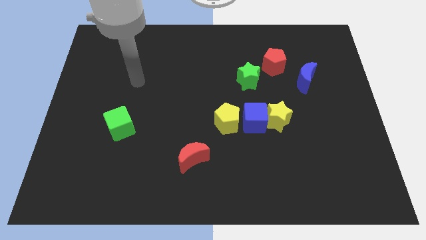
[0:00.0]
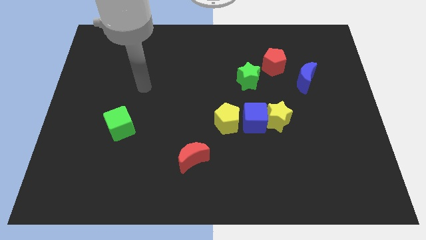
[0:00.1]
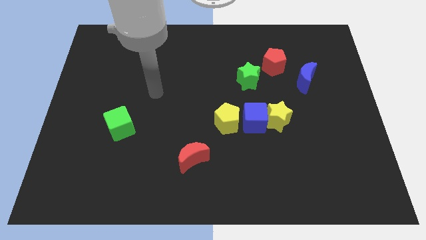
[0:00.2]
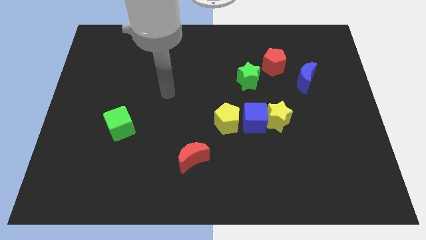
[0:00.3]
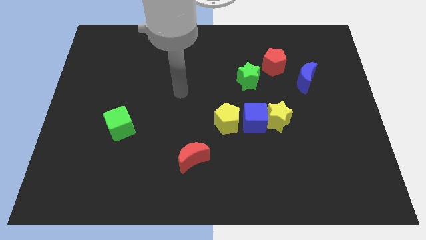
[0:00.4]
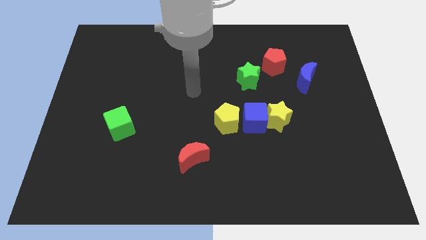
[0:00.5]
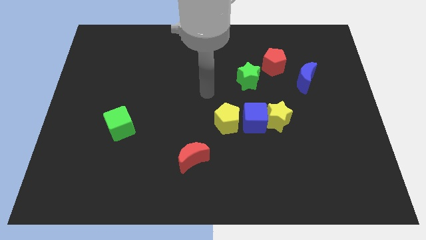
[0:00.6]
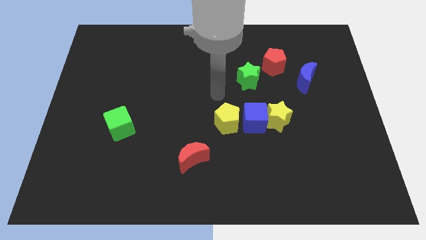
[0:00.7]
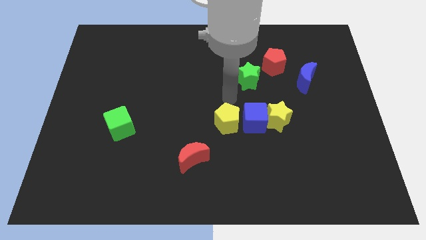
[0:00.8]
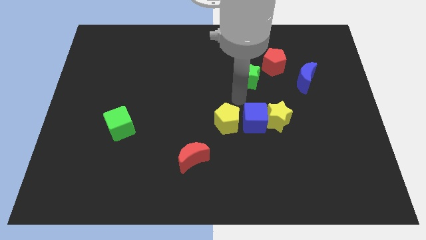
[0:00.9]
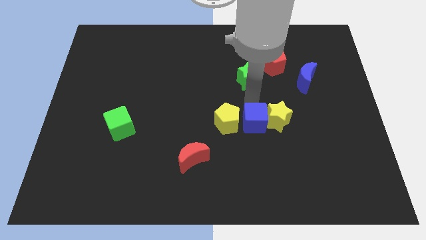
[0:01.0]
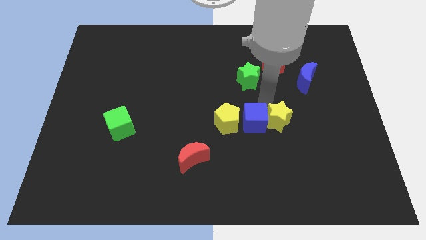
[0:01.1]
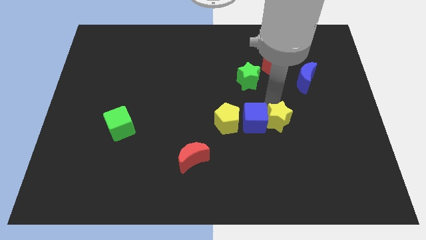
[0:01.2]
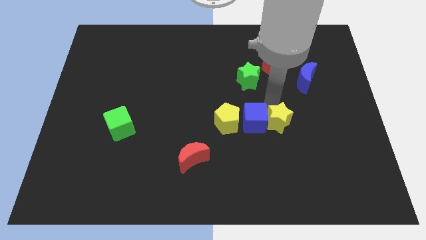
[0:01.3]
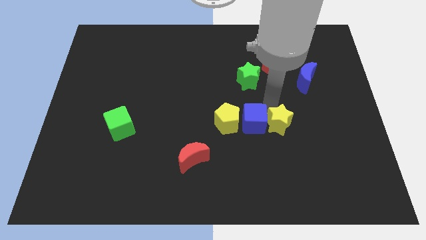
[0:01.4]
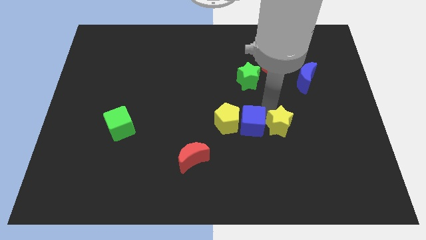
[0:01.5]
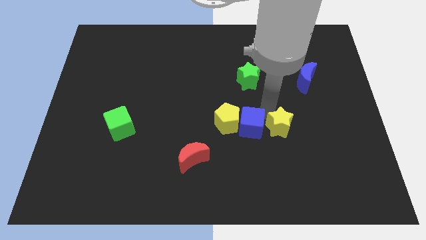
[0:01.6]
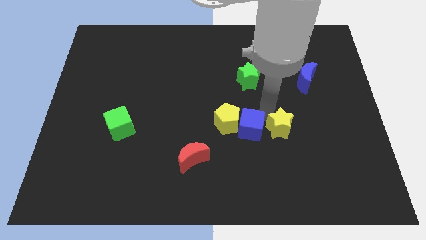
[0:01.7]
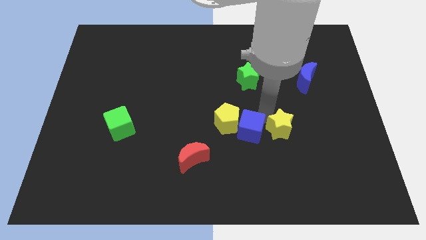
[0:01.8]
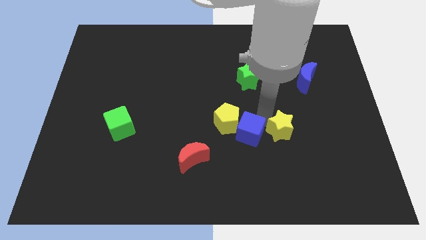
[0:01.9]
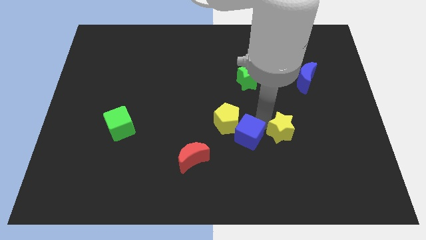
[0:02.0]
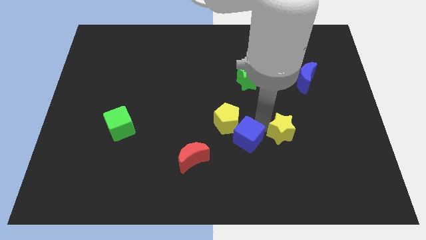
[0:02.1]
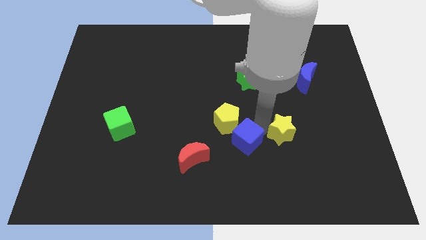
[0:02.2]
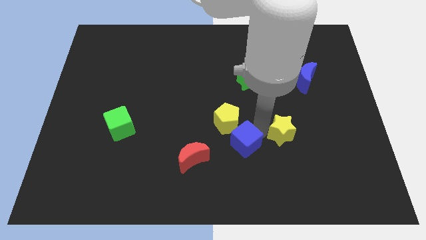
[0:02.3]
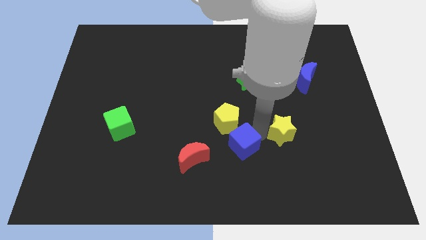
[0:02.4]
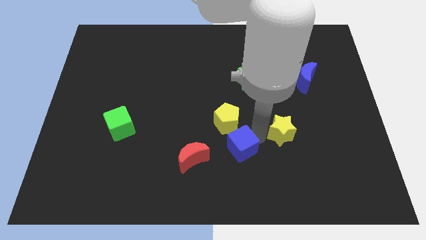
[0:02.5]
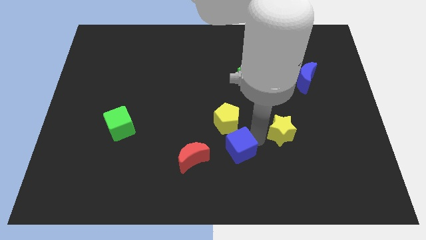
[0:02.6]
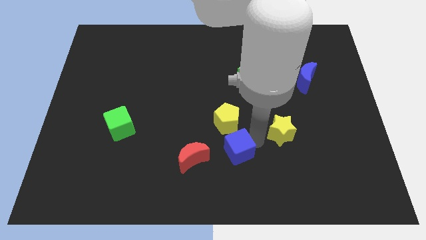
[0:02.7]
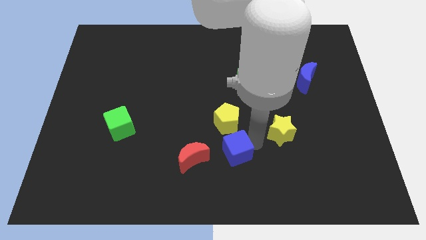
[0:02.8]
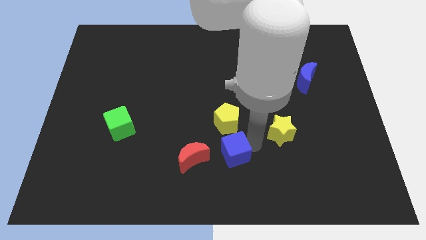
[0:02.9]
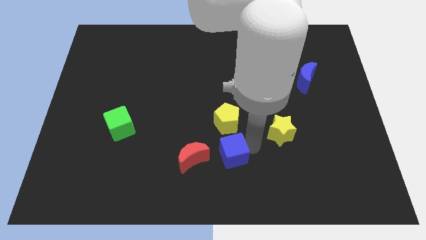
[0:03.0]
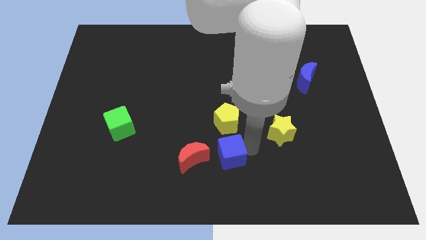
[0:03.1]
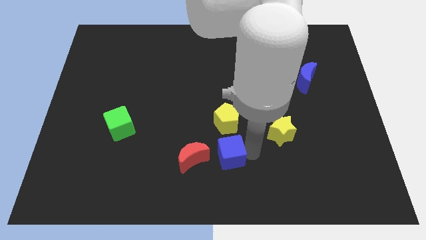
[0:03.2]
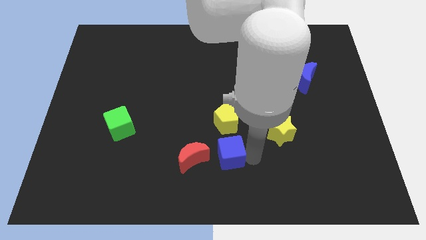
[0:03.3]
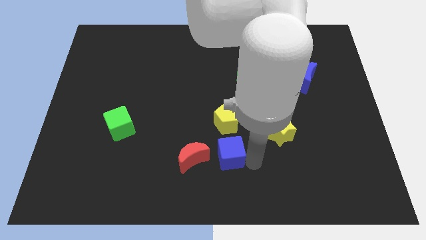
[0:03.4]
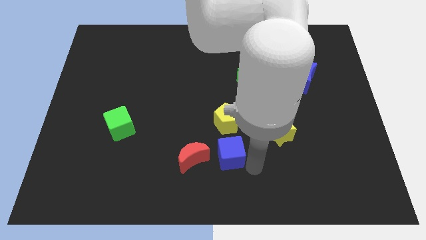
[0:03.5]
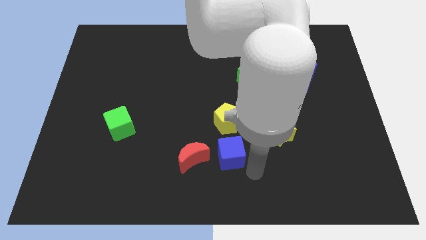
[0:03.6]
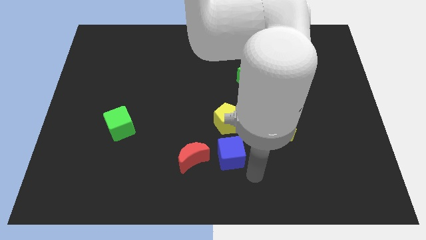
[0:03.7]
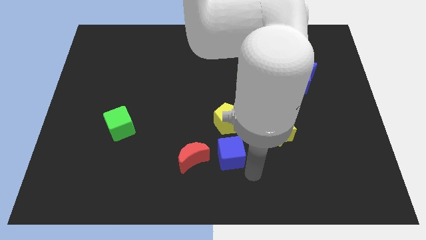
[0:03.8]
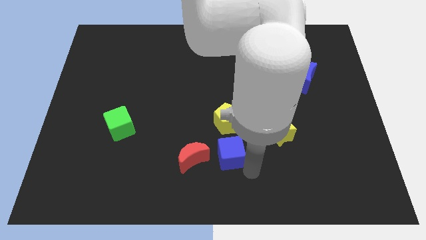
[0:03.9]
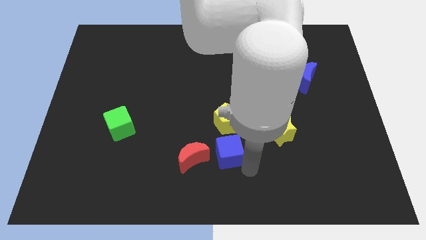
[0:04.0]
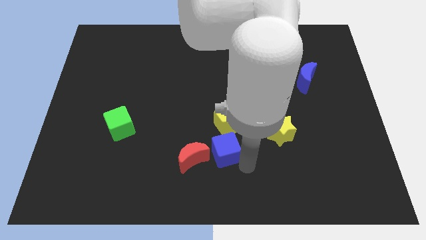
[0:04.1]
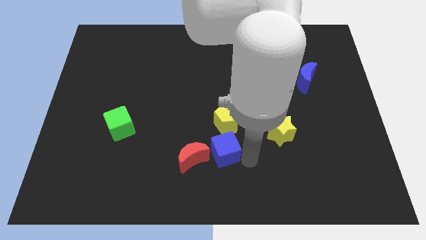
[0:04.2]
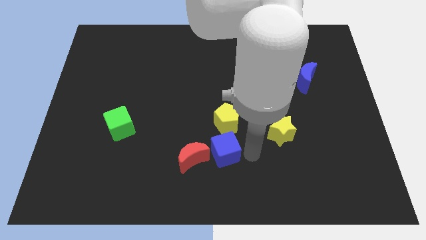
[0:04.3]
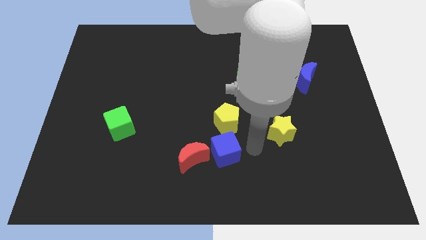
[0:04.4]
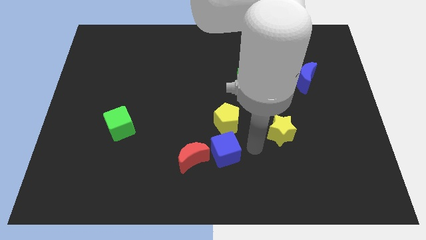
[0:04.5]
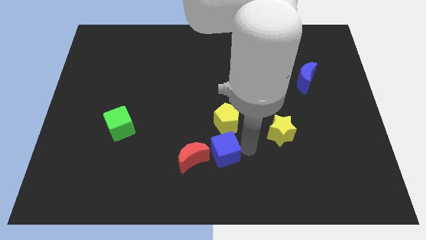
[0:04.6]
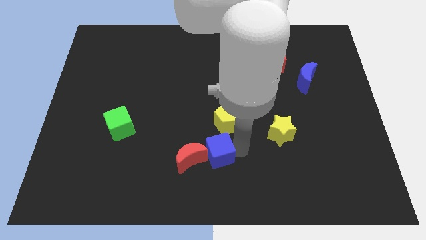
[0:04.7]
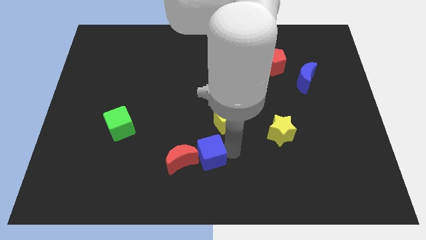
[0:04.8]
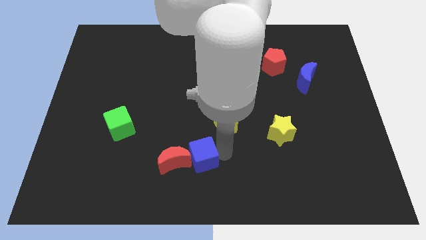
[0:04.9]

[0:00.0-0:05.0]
put the blue cube to the red moon

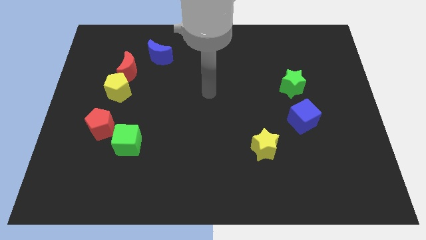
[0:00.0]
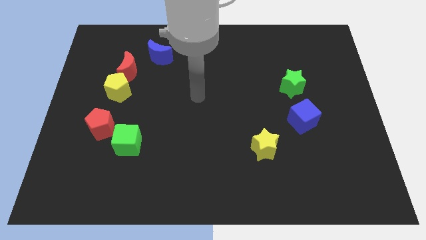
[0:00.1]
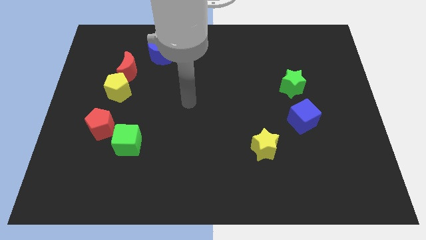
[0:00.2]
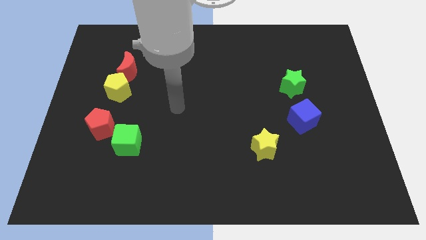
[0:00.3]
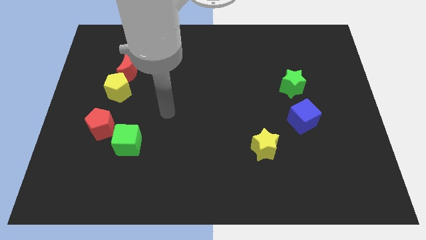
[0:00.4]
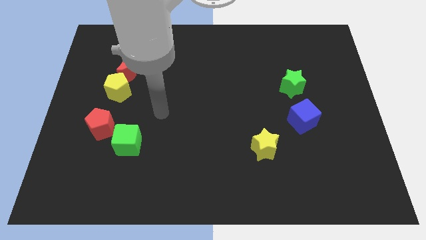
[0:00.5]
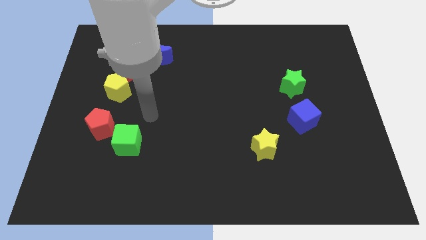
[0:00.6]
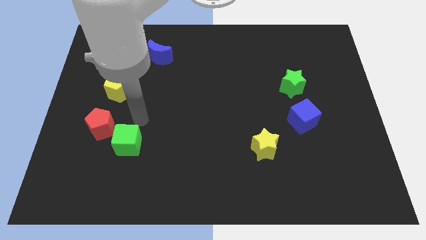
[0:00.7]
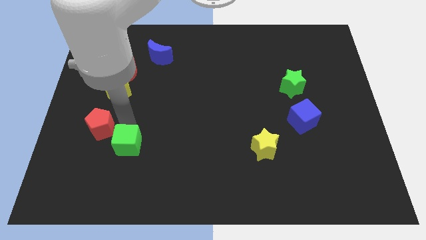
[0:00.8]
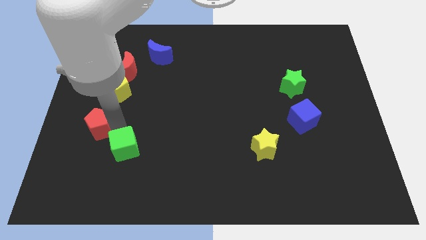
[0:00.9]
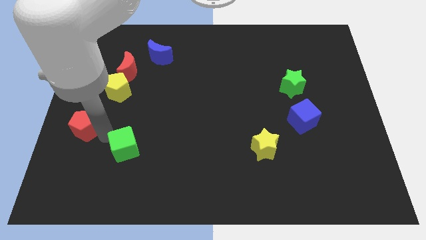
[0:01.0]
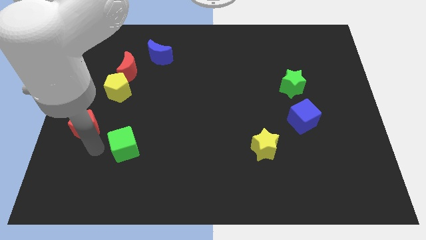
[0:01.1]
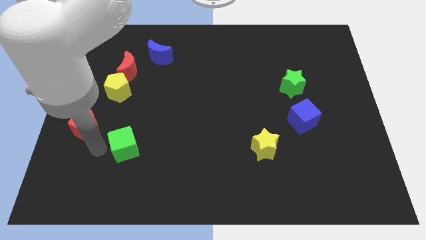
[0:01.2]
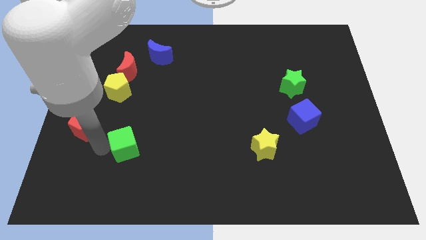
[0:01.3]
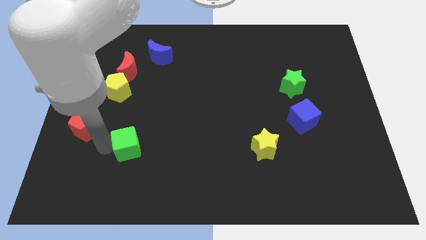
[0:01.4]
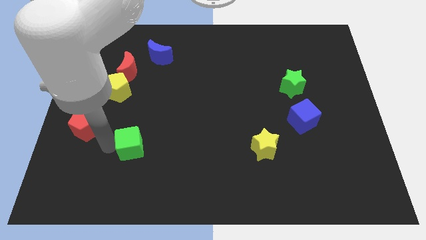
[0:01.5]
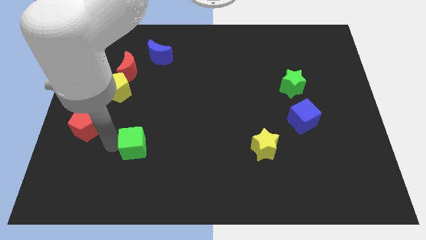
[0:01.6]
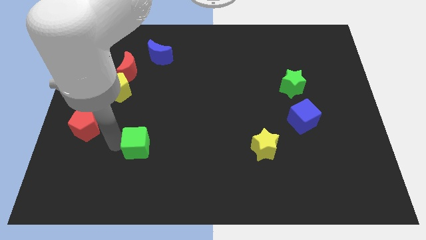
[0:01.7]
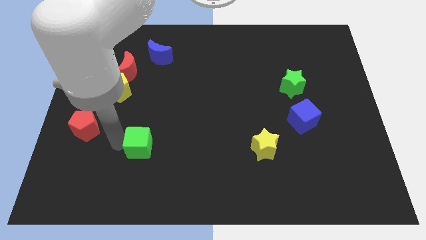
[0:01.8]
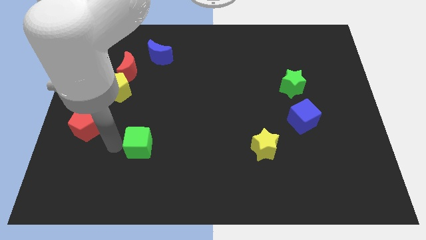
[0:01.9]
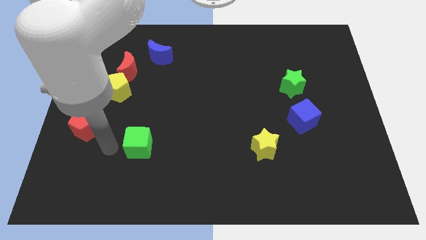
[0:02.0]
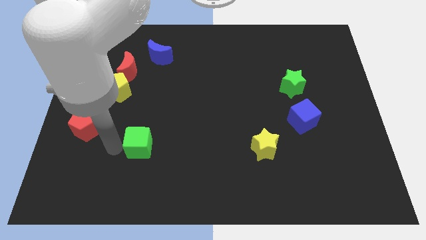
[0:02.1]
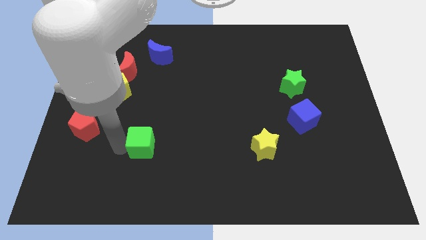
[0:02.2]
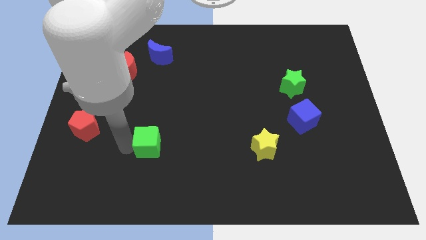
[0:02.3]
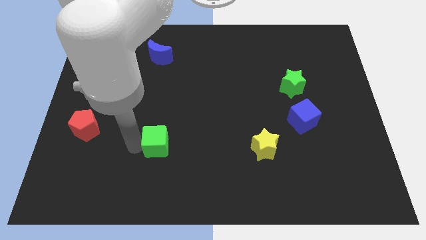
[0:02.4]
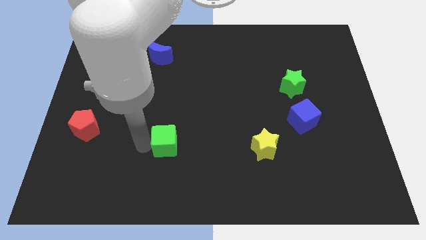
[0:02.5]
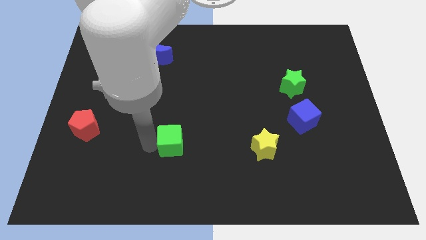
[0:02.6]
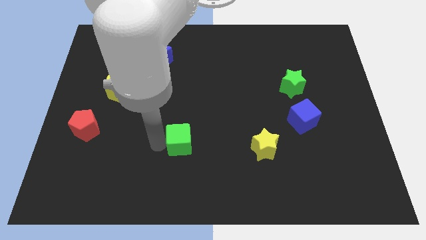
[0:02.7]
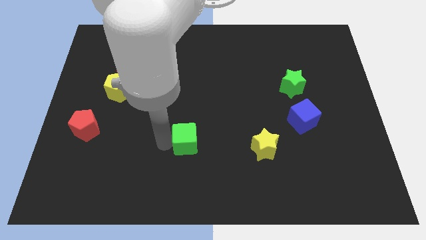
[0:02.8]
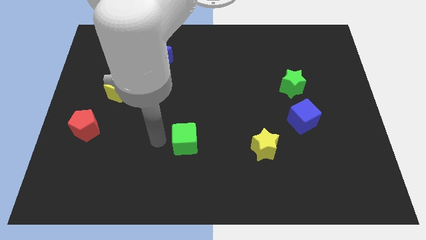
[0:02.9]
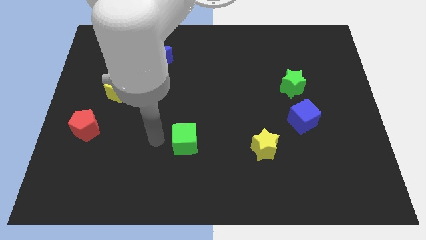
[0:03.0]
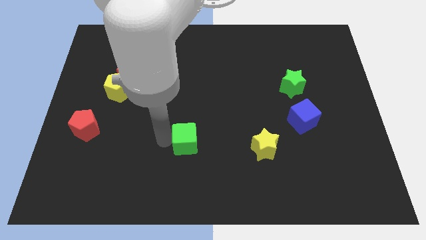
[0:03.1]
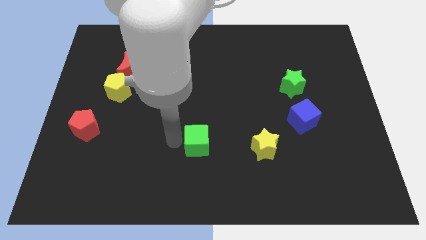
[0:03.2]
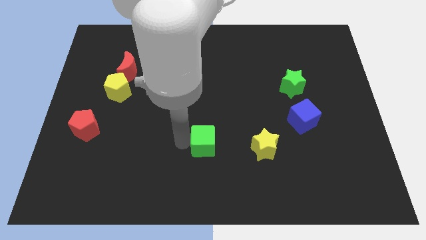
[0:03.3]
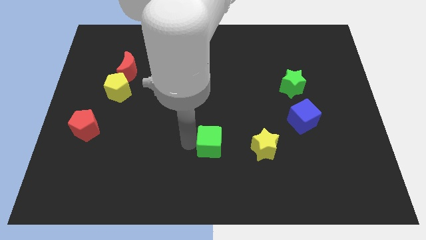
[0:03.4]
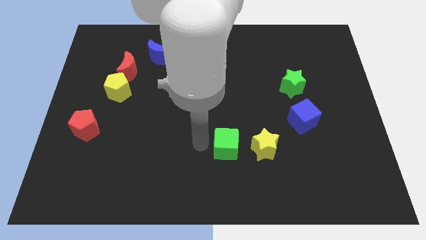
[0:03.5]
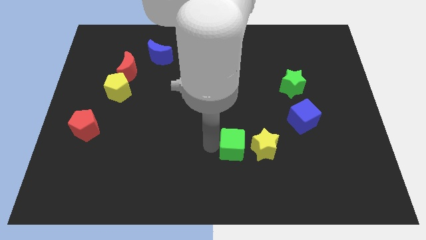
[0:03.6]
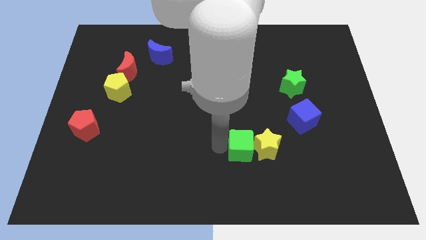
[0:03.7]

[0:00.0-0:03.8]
put the green cube next to the yellow star
